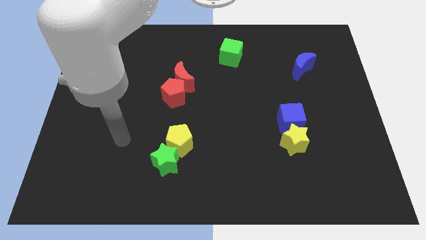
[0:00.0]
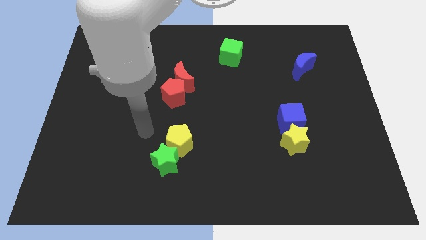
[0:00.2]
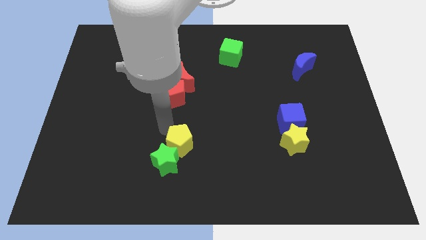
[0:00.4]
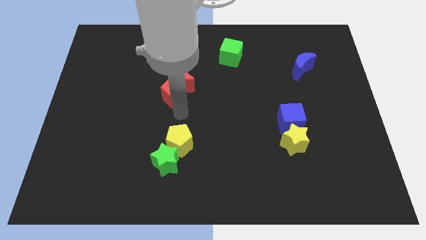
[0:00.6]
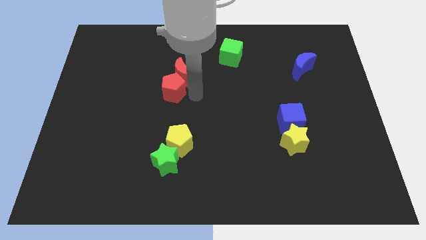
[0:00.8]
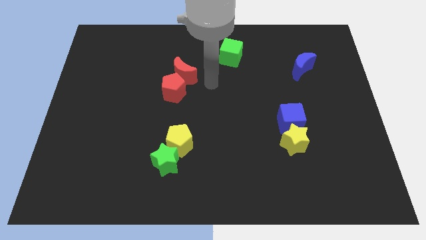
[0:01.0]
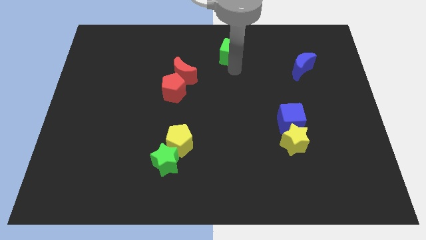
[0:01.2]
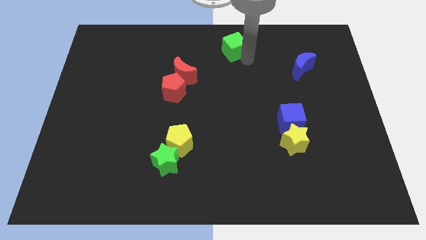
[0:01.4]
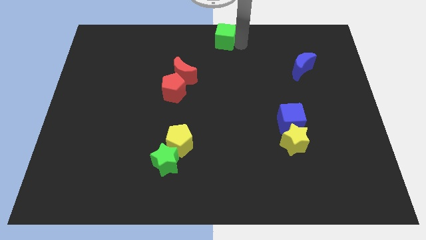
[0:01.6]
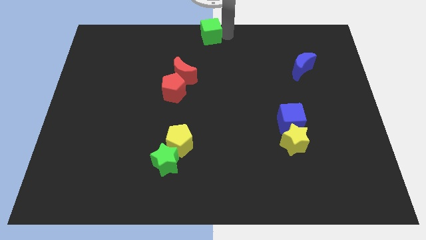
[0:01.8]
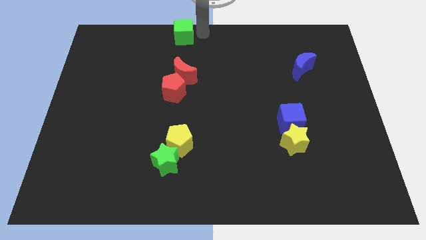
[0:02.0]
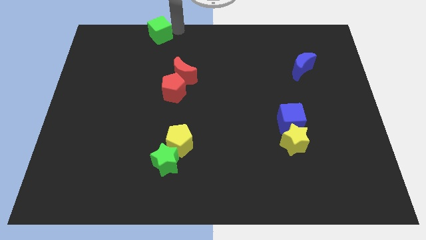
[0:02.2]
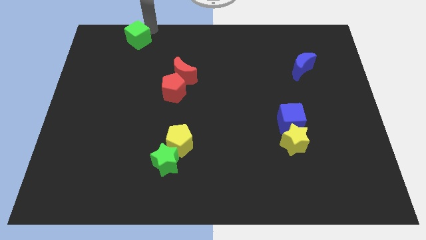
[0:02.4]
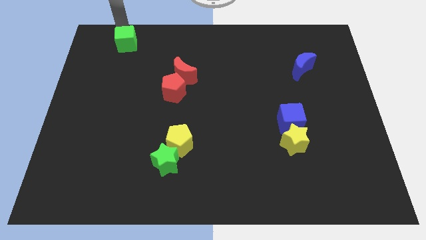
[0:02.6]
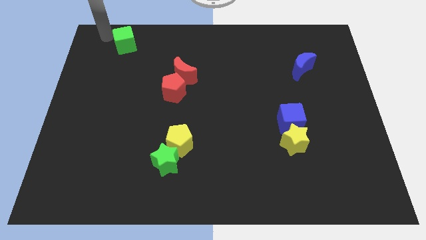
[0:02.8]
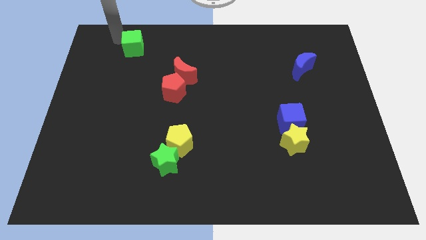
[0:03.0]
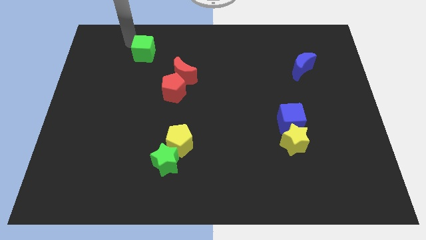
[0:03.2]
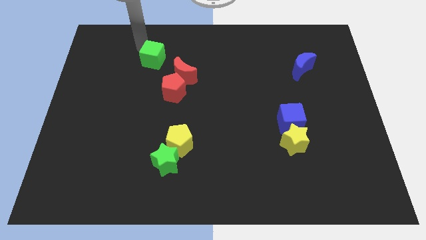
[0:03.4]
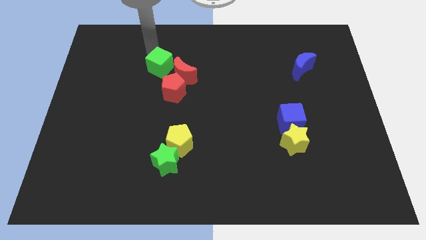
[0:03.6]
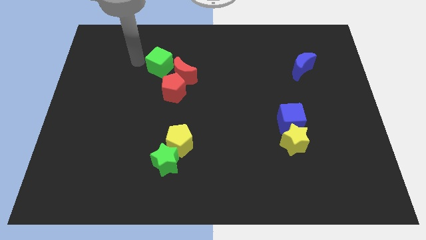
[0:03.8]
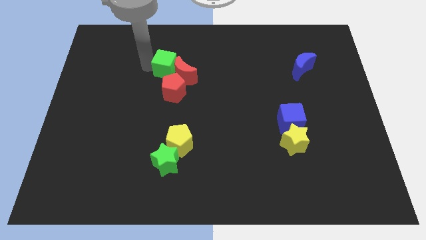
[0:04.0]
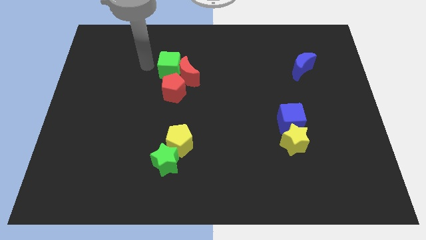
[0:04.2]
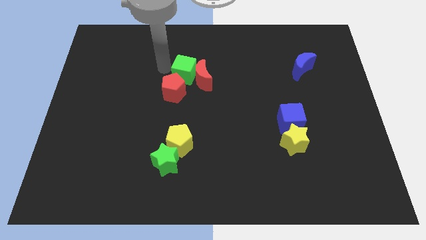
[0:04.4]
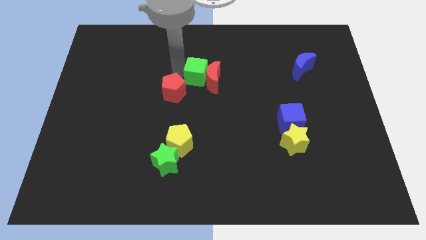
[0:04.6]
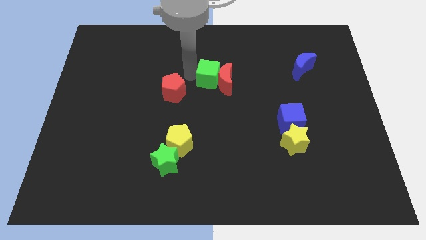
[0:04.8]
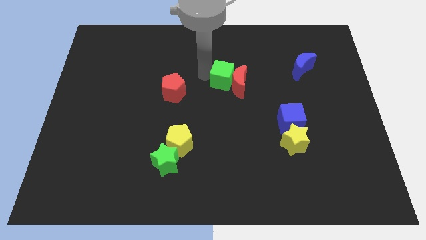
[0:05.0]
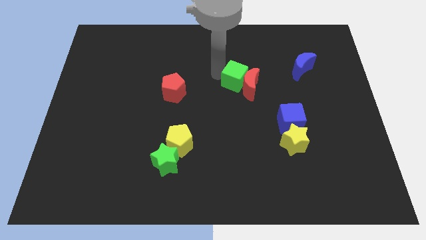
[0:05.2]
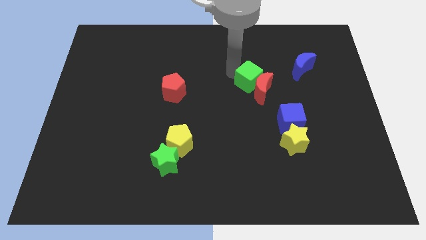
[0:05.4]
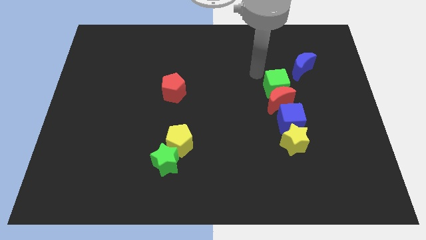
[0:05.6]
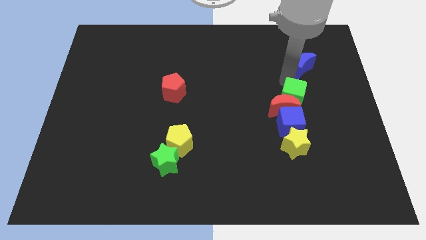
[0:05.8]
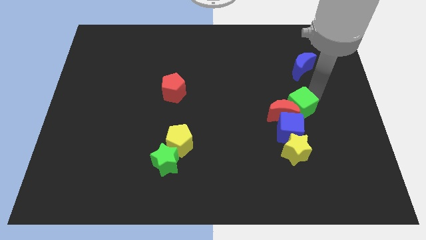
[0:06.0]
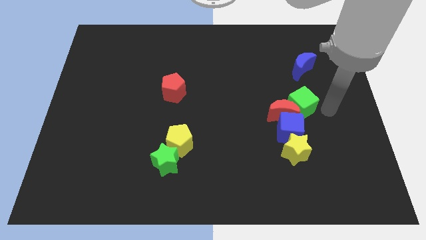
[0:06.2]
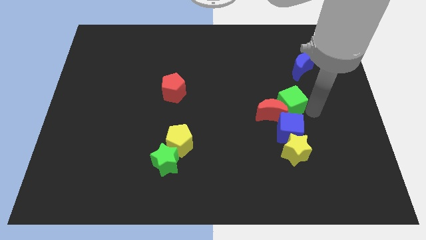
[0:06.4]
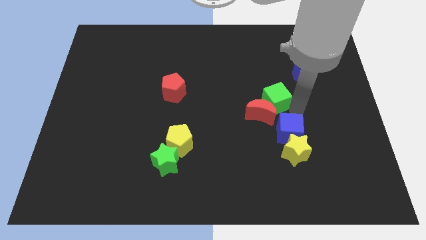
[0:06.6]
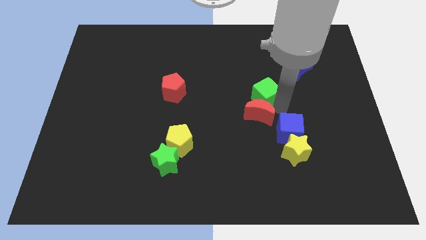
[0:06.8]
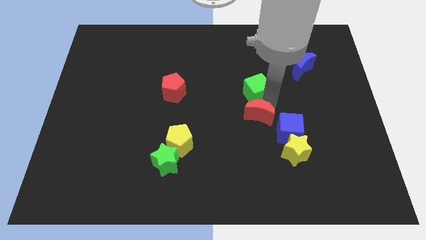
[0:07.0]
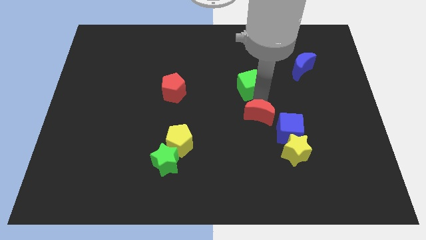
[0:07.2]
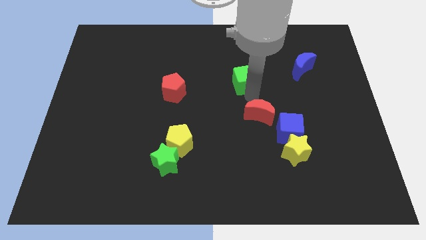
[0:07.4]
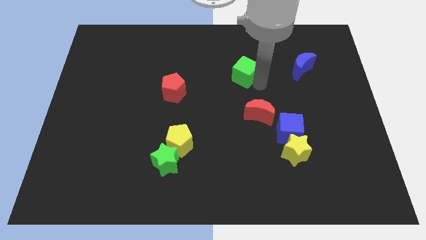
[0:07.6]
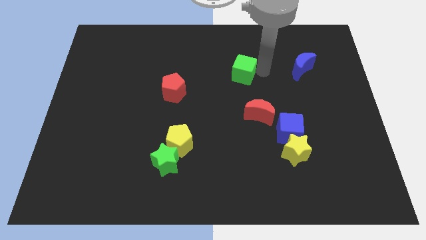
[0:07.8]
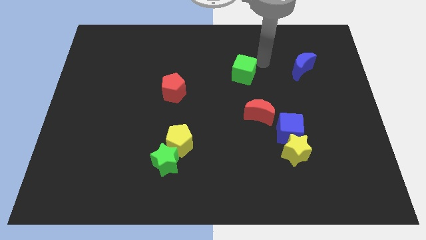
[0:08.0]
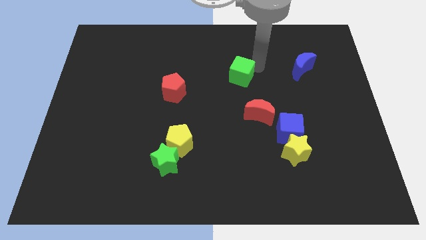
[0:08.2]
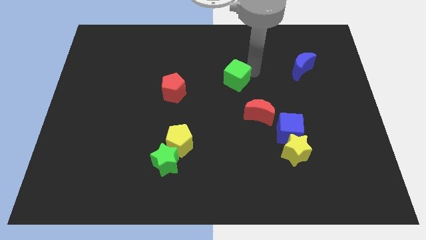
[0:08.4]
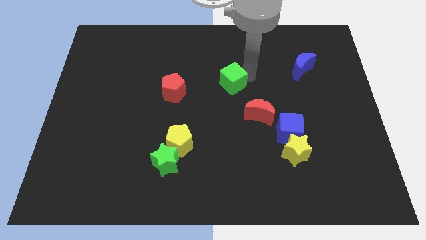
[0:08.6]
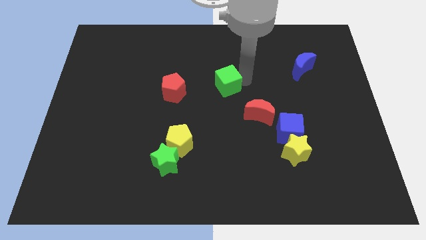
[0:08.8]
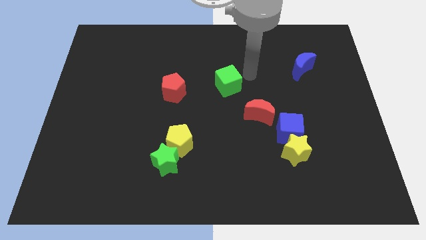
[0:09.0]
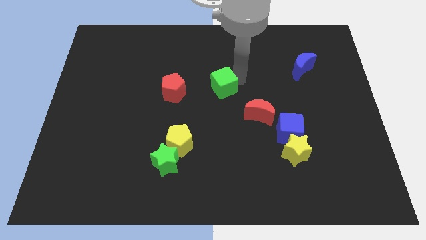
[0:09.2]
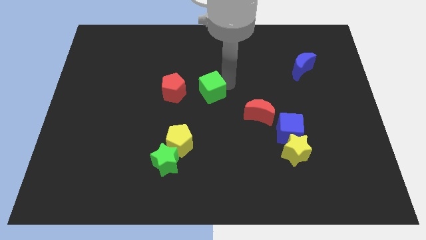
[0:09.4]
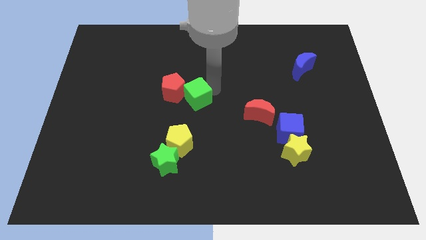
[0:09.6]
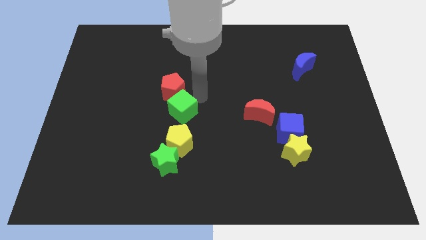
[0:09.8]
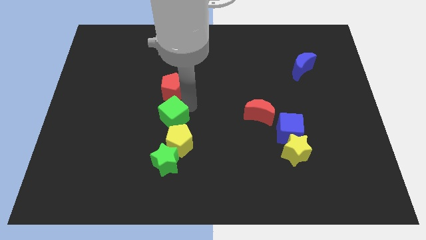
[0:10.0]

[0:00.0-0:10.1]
push the green cube diagonally up and to the left of the yellow pentagon

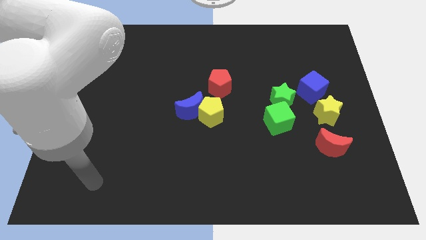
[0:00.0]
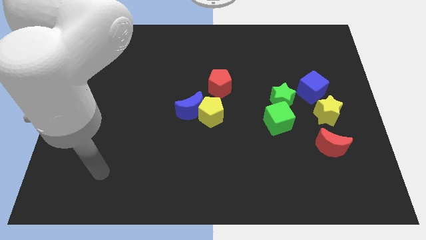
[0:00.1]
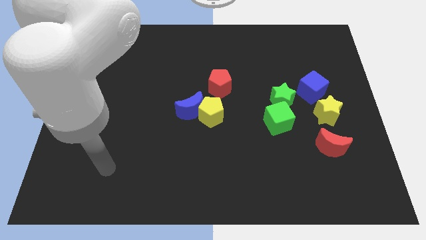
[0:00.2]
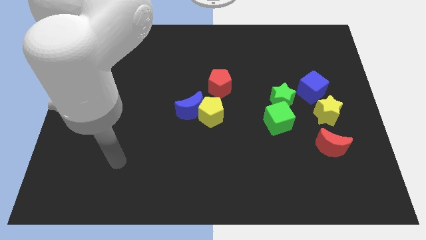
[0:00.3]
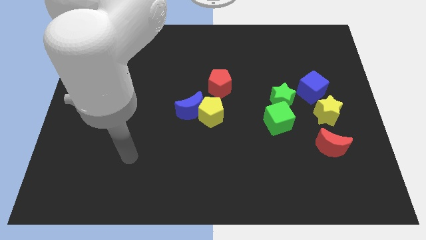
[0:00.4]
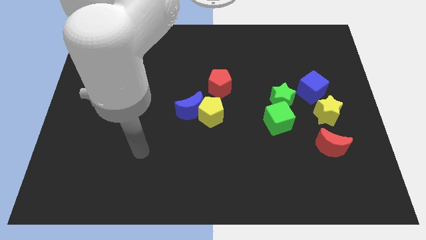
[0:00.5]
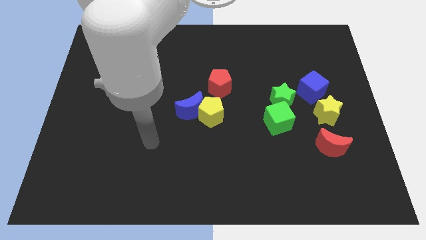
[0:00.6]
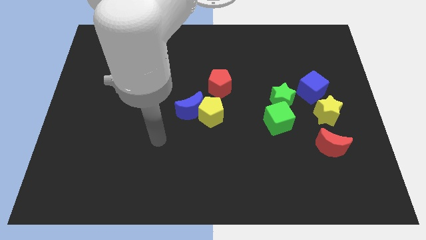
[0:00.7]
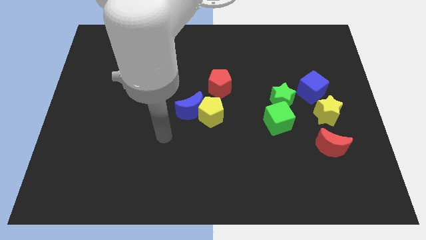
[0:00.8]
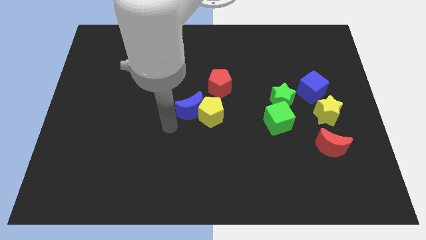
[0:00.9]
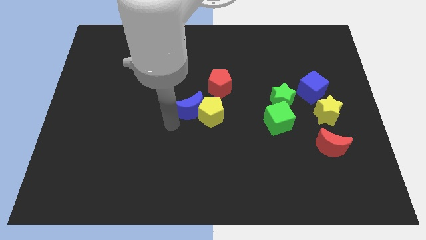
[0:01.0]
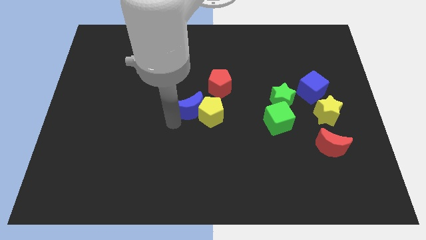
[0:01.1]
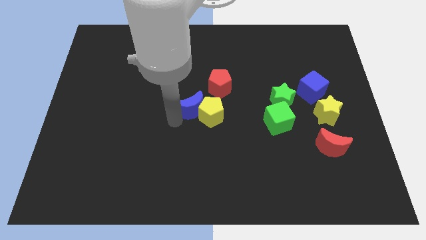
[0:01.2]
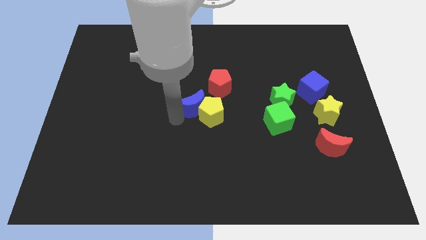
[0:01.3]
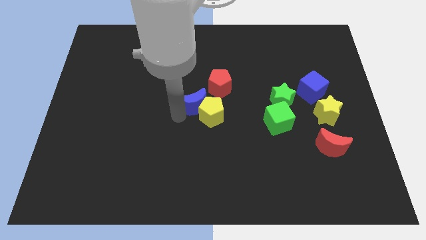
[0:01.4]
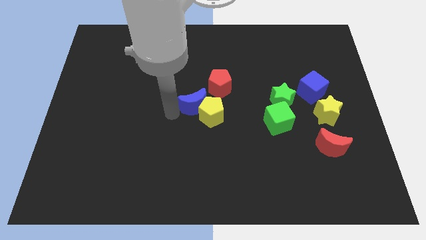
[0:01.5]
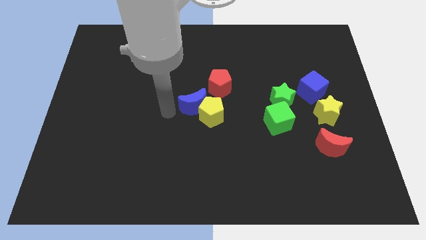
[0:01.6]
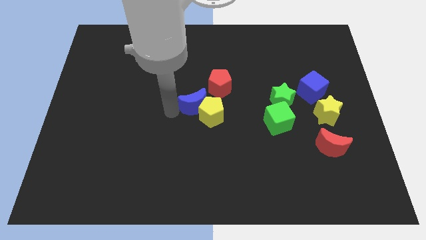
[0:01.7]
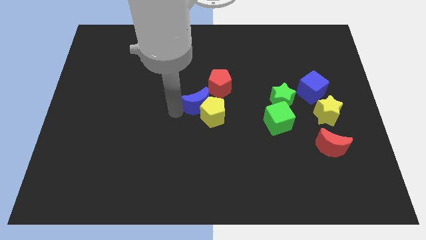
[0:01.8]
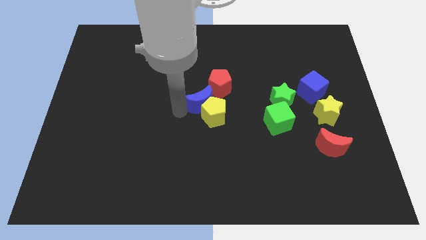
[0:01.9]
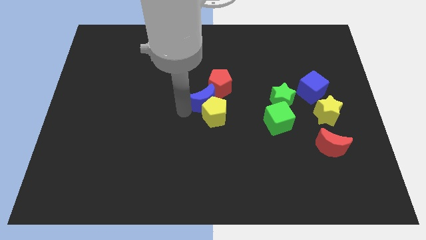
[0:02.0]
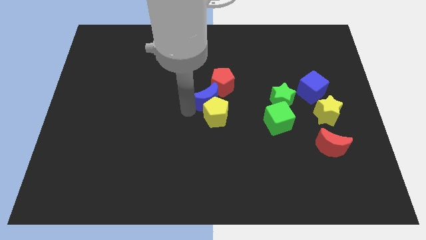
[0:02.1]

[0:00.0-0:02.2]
slide the blue moon to the top right of the yellow pentagon
